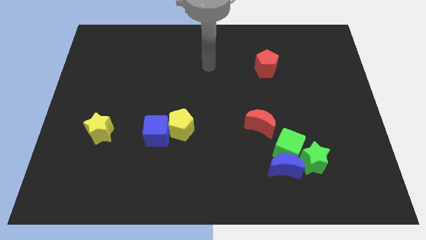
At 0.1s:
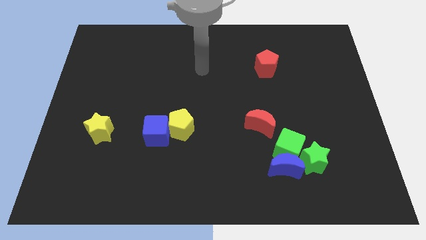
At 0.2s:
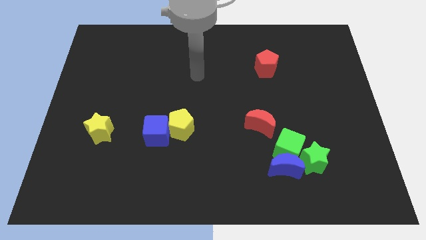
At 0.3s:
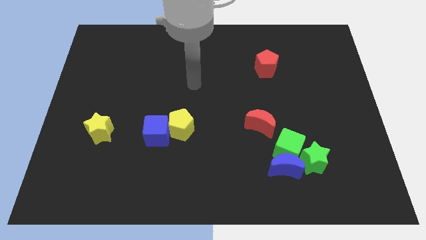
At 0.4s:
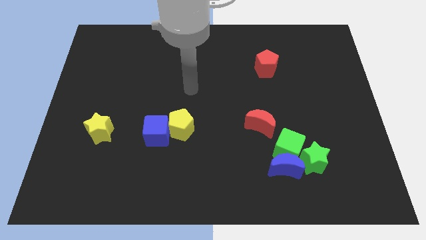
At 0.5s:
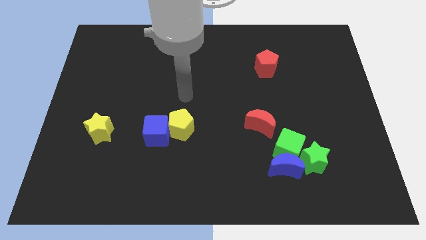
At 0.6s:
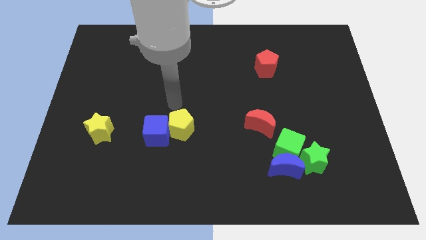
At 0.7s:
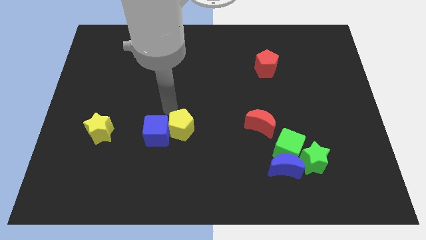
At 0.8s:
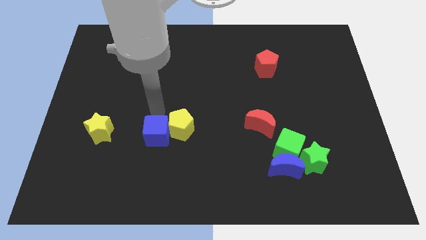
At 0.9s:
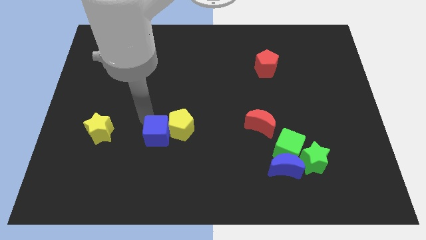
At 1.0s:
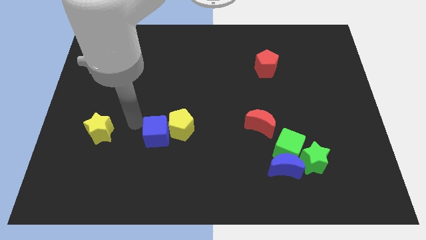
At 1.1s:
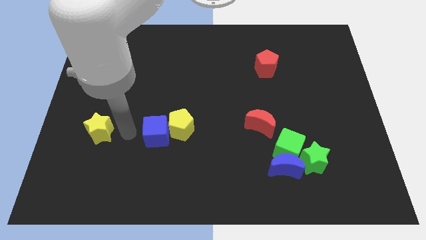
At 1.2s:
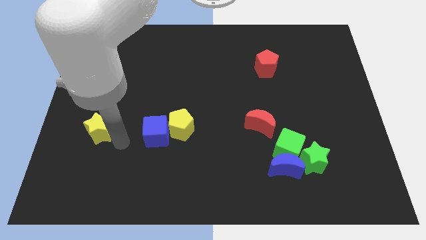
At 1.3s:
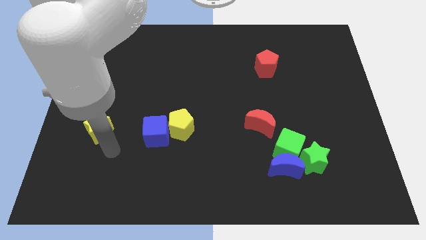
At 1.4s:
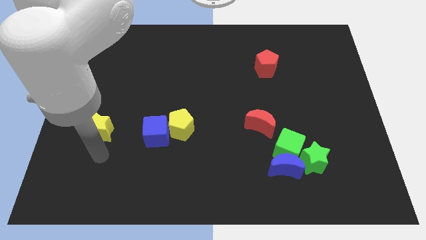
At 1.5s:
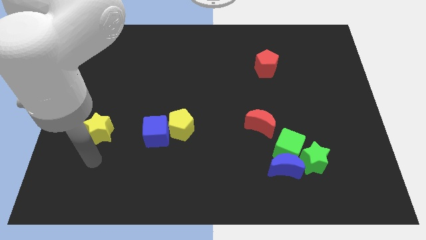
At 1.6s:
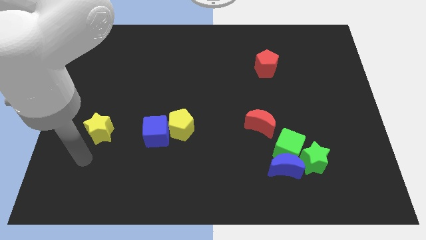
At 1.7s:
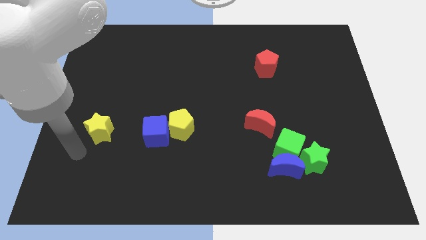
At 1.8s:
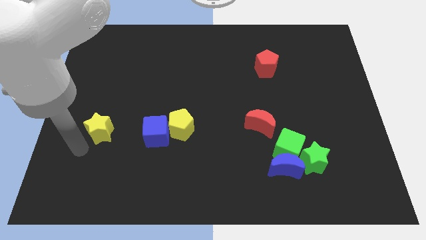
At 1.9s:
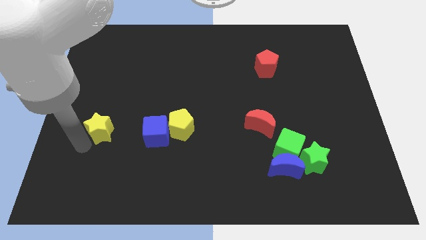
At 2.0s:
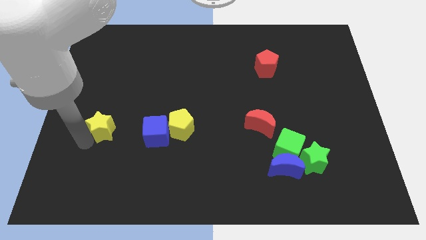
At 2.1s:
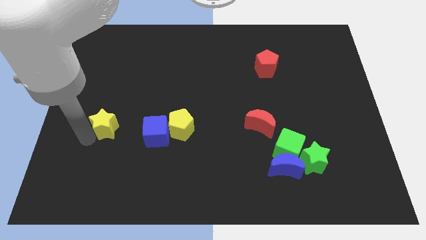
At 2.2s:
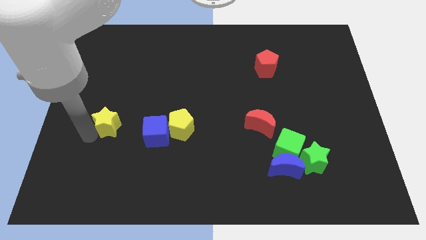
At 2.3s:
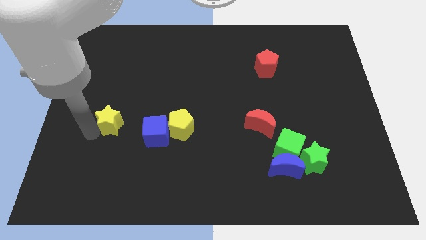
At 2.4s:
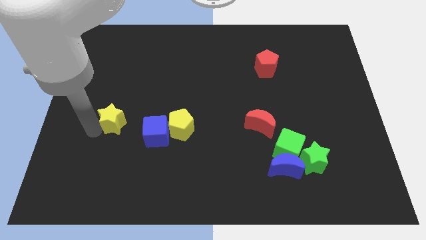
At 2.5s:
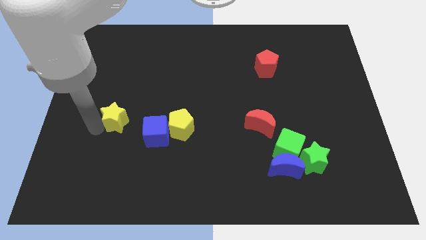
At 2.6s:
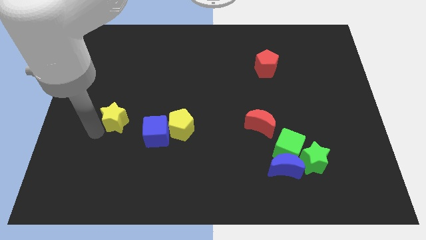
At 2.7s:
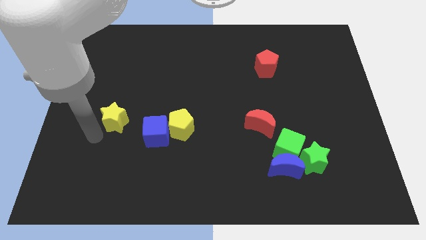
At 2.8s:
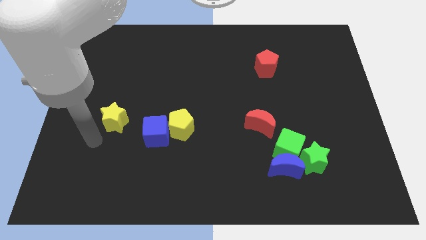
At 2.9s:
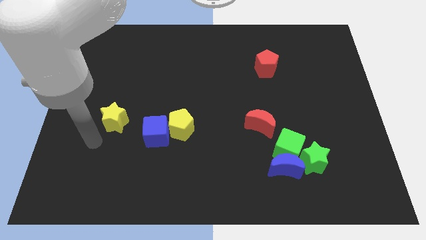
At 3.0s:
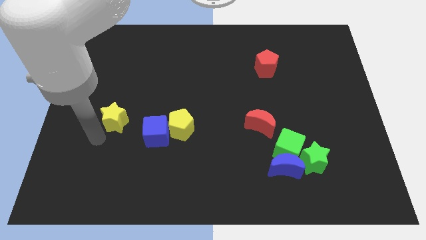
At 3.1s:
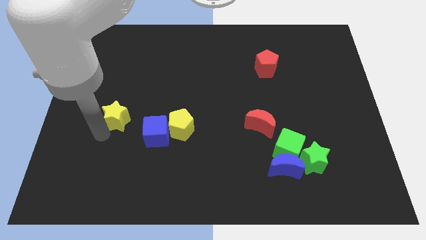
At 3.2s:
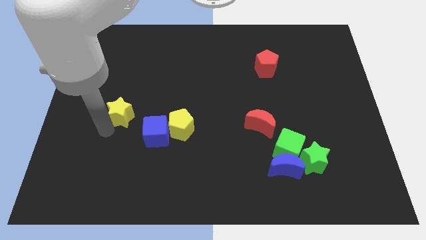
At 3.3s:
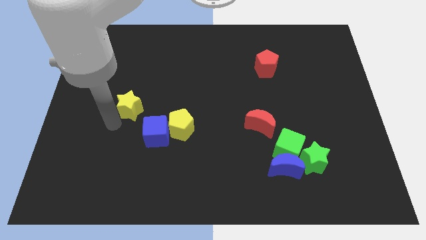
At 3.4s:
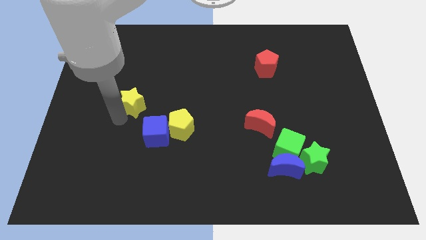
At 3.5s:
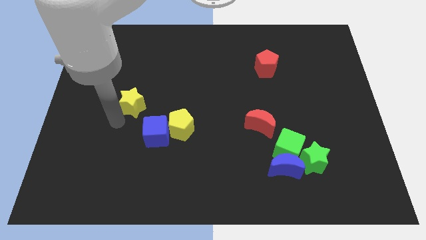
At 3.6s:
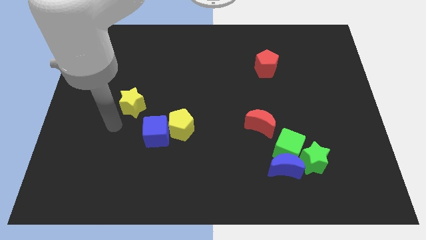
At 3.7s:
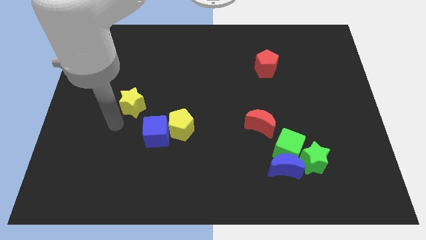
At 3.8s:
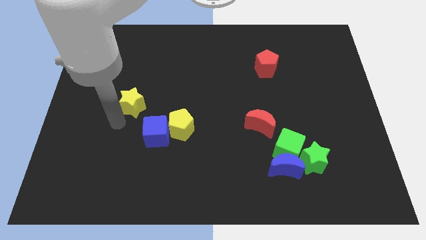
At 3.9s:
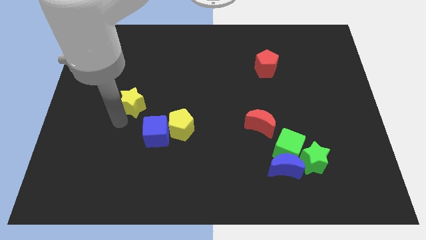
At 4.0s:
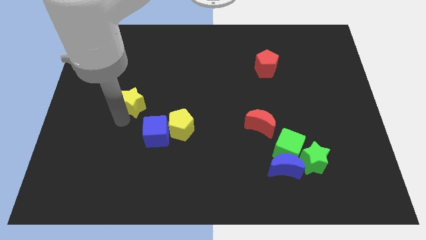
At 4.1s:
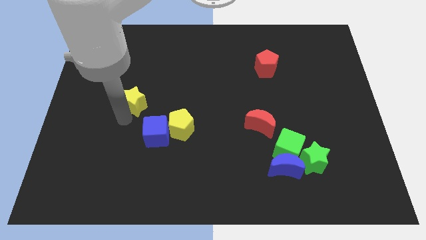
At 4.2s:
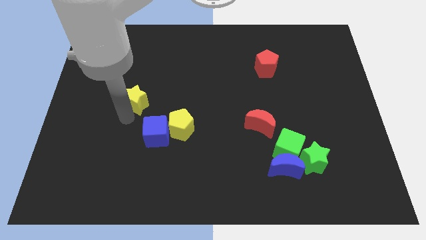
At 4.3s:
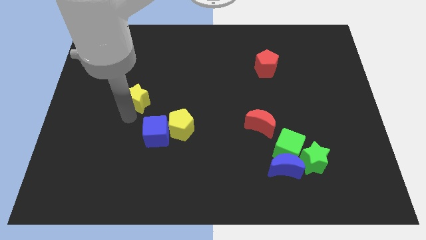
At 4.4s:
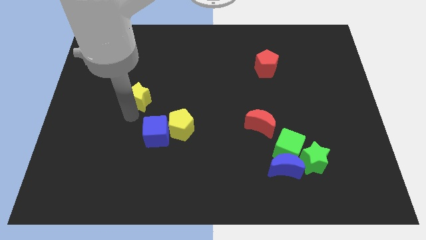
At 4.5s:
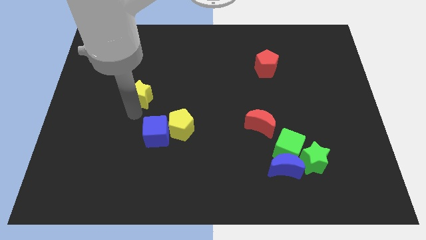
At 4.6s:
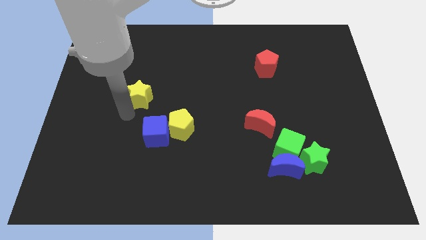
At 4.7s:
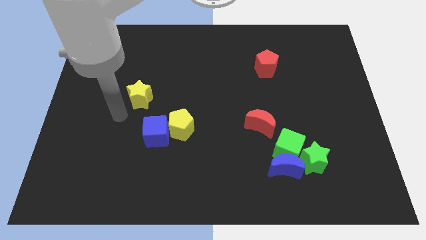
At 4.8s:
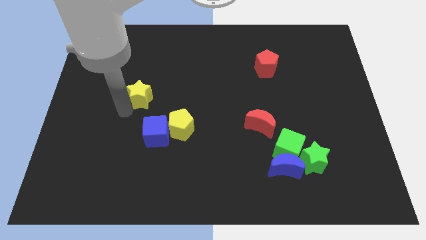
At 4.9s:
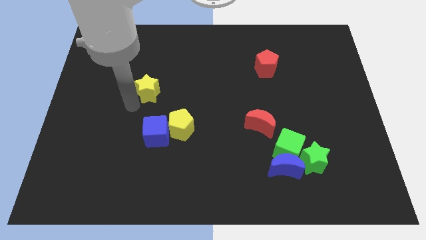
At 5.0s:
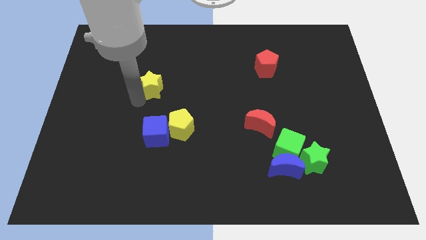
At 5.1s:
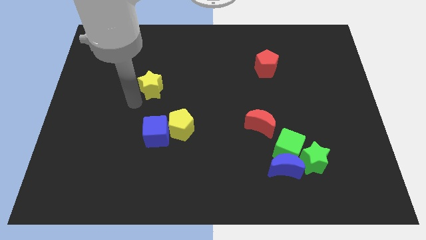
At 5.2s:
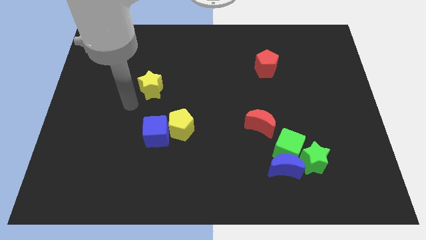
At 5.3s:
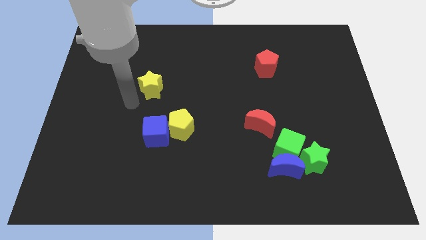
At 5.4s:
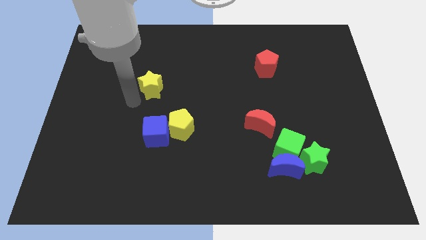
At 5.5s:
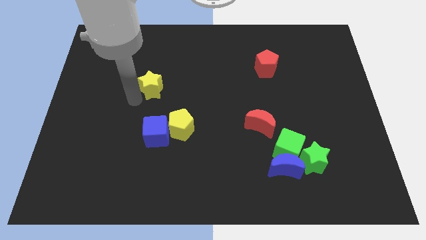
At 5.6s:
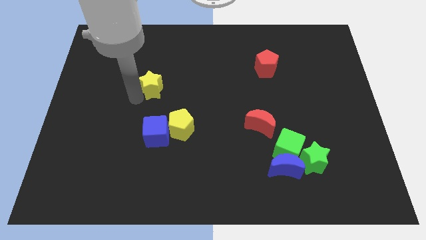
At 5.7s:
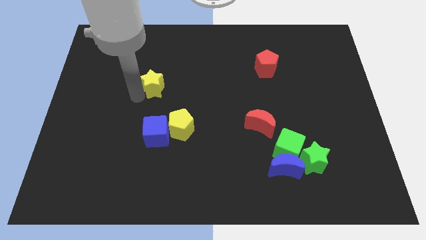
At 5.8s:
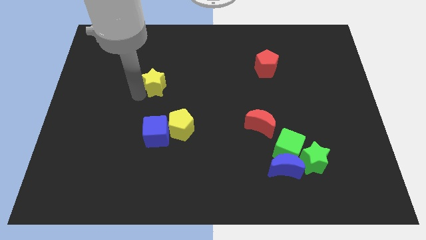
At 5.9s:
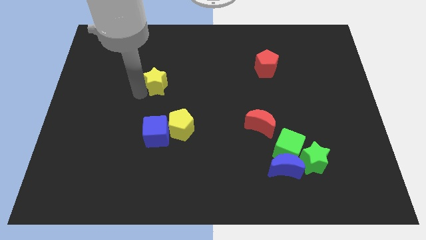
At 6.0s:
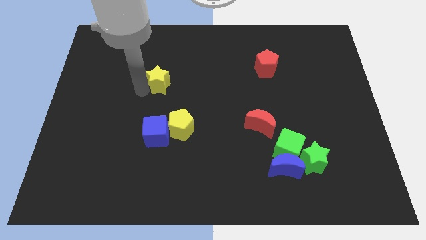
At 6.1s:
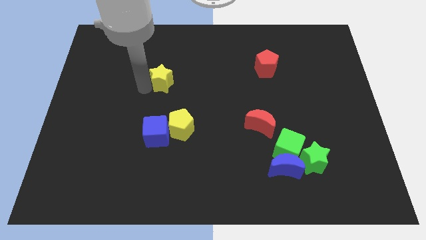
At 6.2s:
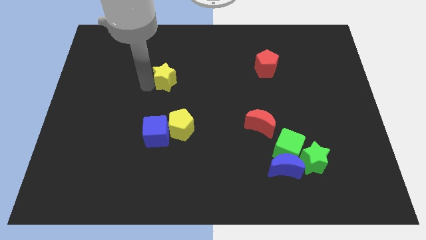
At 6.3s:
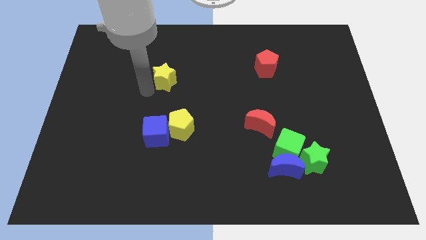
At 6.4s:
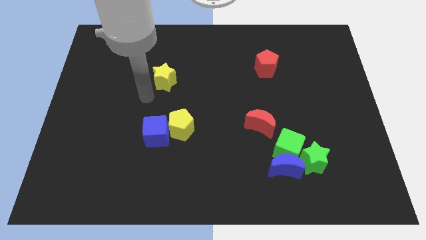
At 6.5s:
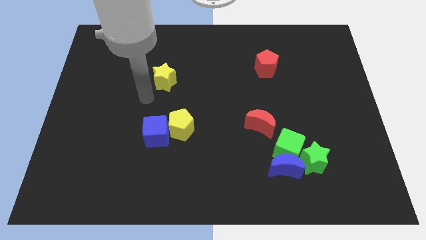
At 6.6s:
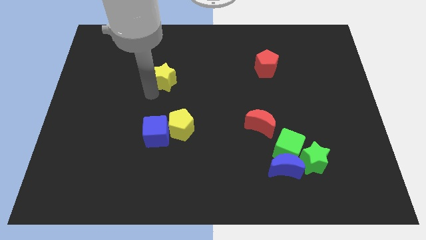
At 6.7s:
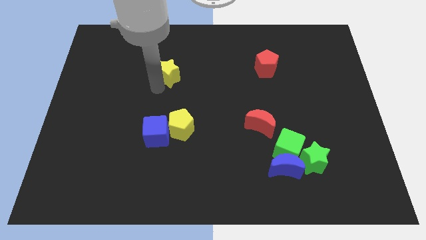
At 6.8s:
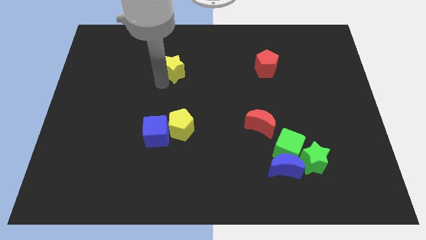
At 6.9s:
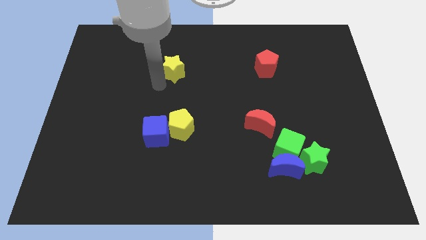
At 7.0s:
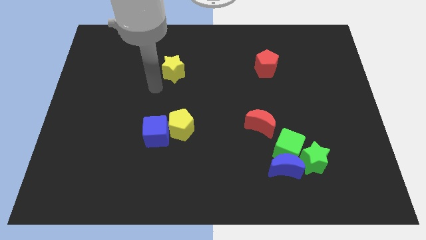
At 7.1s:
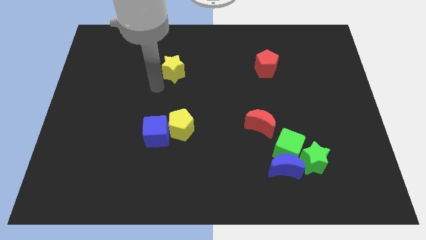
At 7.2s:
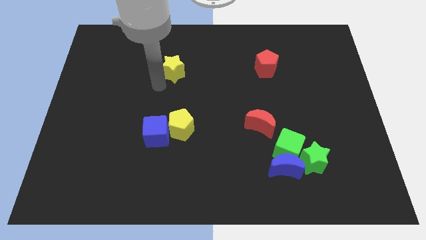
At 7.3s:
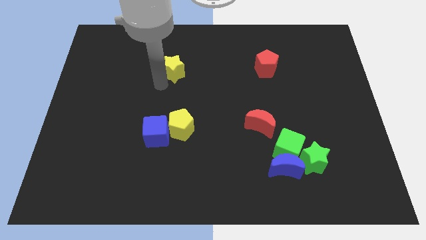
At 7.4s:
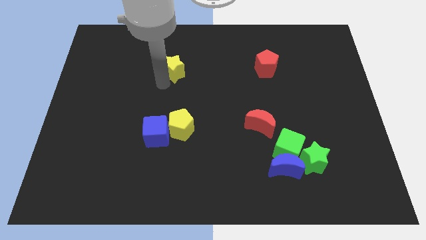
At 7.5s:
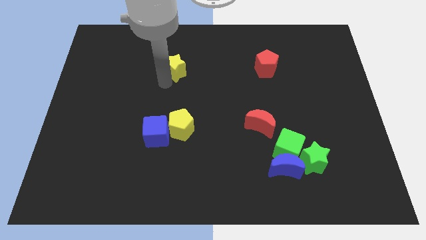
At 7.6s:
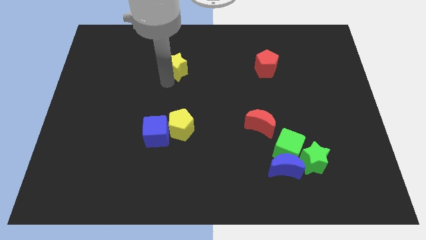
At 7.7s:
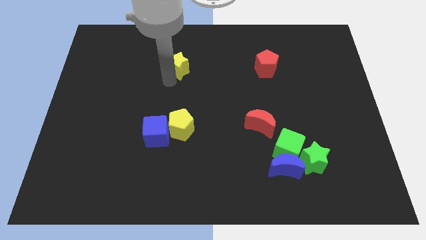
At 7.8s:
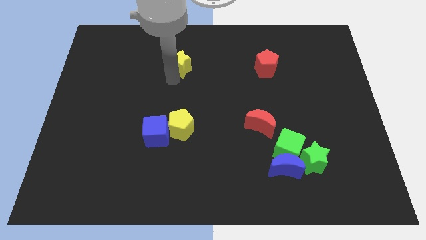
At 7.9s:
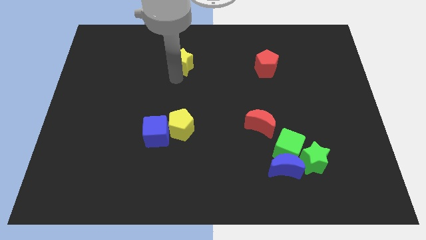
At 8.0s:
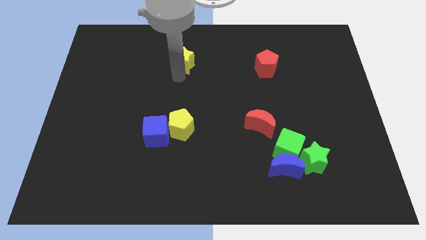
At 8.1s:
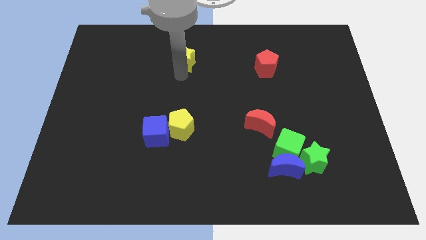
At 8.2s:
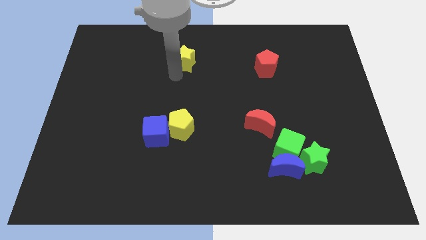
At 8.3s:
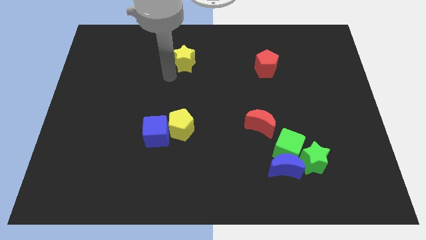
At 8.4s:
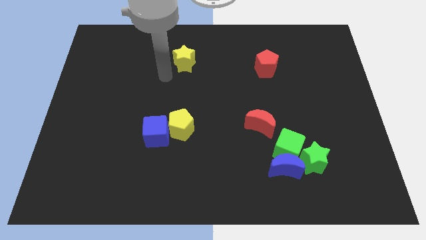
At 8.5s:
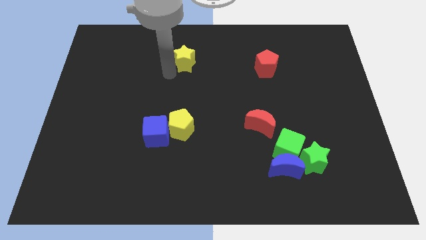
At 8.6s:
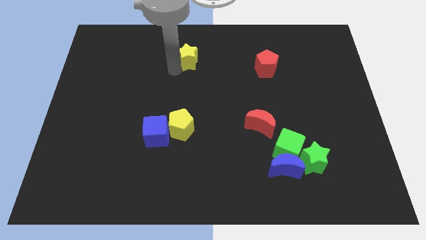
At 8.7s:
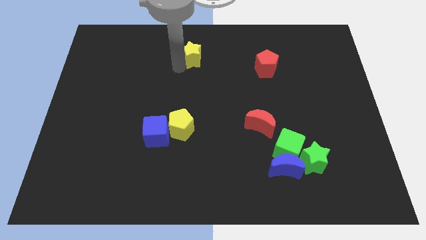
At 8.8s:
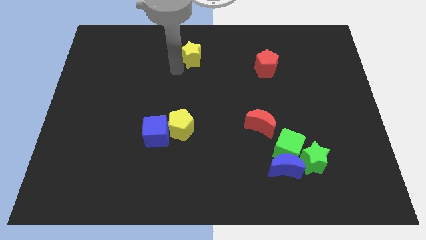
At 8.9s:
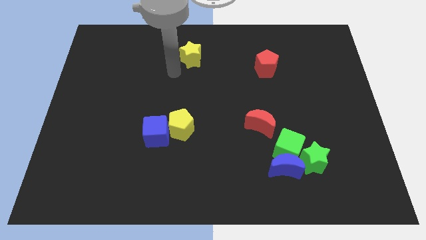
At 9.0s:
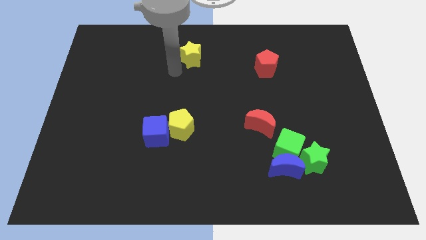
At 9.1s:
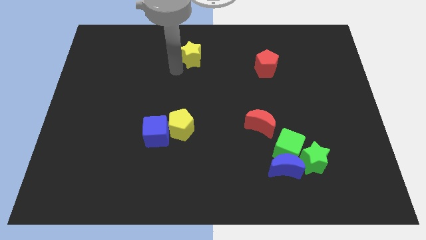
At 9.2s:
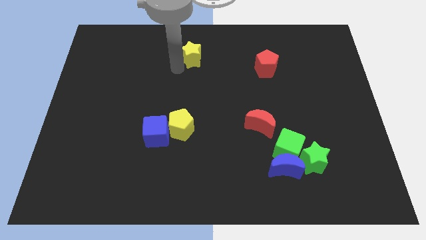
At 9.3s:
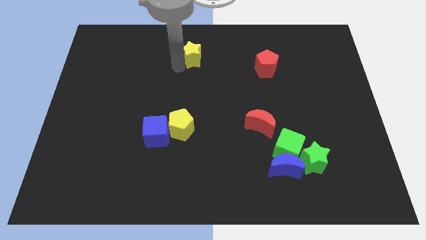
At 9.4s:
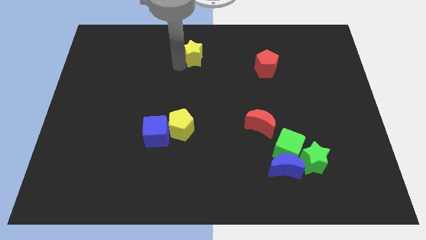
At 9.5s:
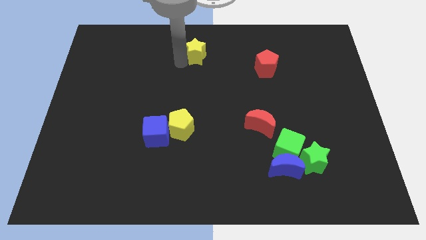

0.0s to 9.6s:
push the yellow star to the top side
